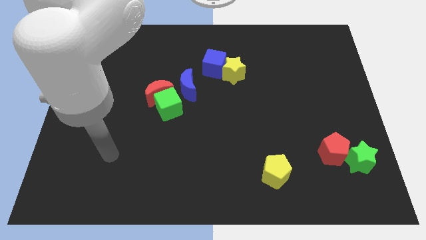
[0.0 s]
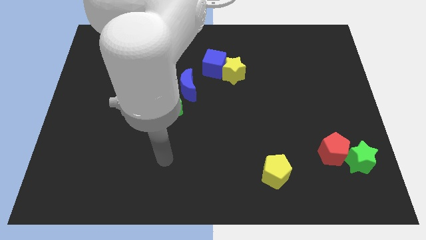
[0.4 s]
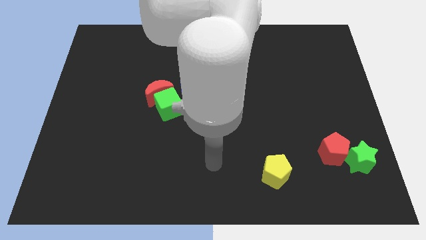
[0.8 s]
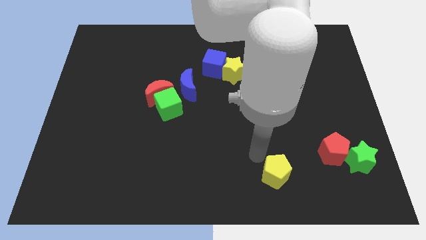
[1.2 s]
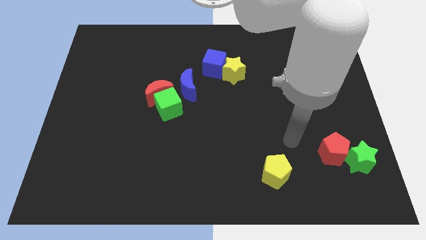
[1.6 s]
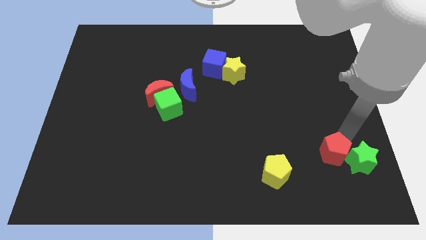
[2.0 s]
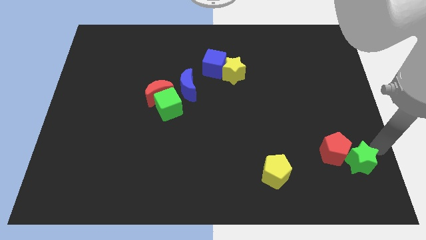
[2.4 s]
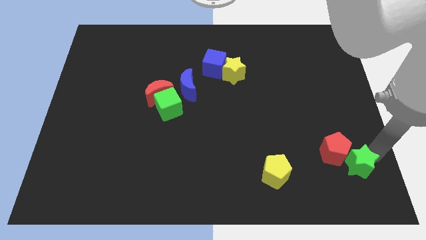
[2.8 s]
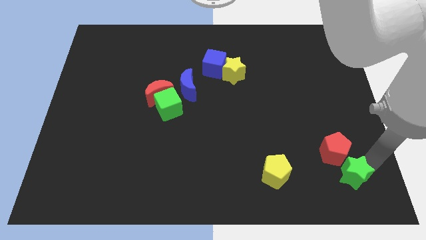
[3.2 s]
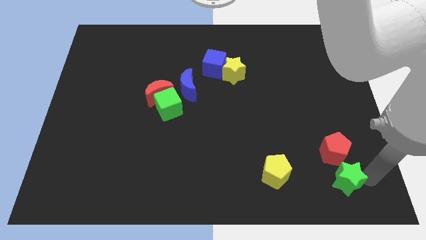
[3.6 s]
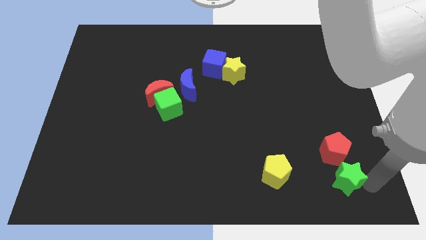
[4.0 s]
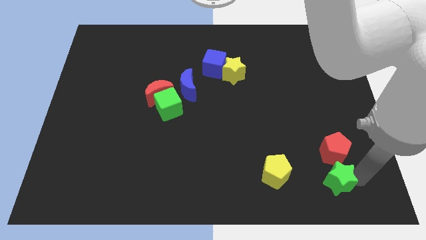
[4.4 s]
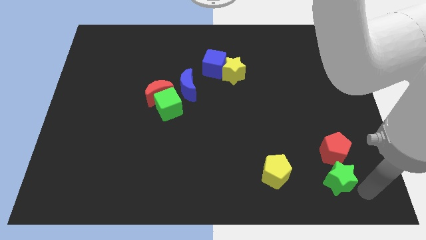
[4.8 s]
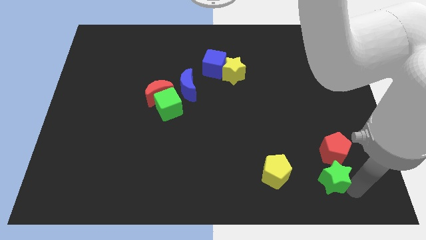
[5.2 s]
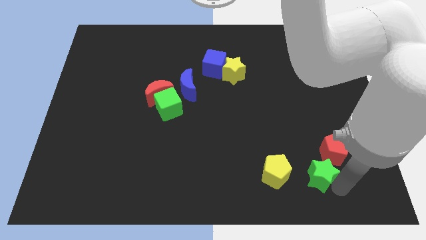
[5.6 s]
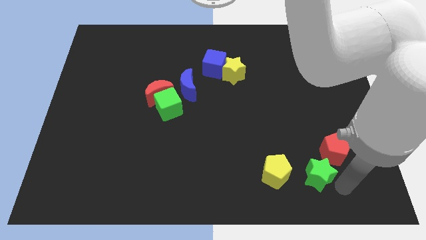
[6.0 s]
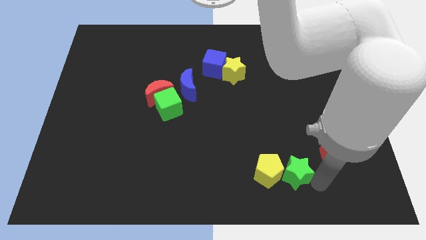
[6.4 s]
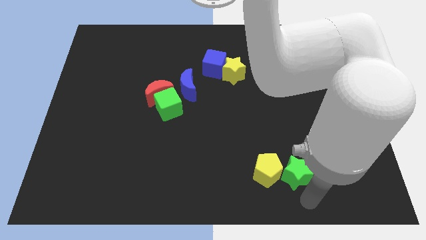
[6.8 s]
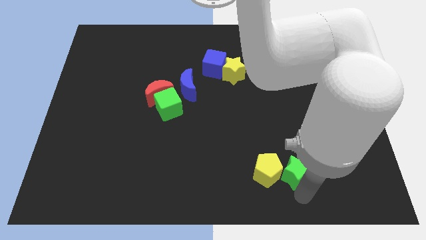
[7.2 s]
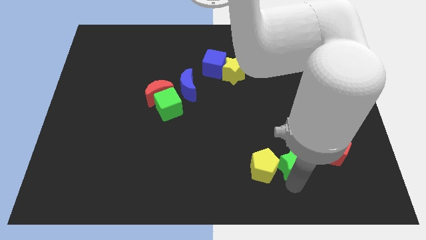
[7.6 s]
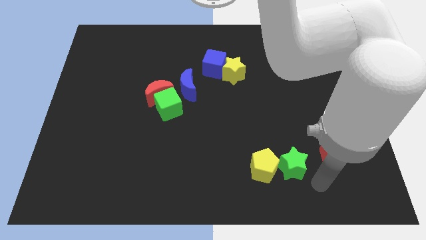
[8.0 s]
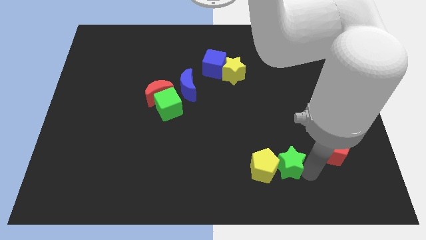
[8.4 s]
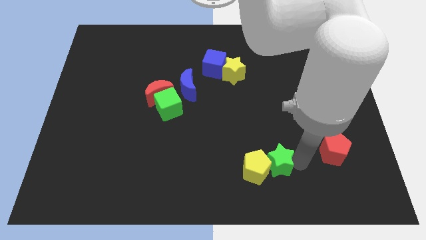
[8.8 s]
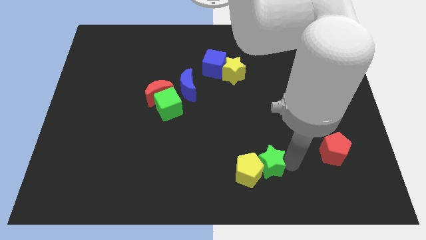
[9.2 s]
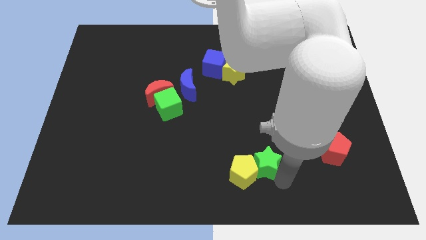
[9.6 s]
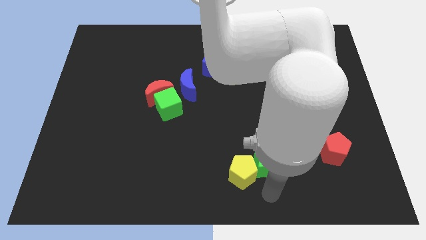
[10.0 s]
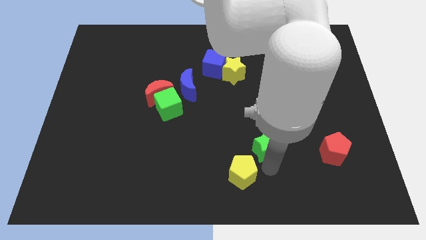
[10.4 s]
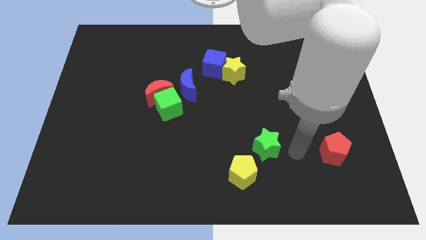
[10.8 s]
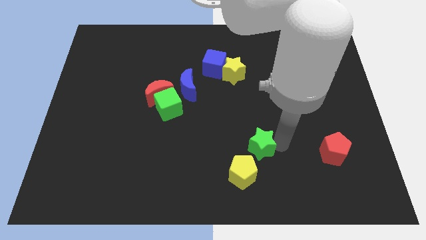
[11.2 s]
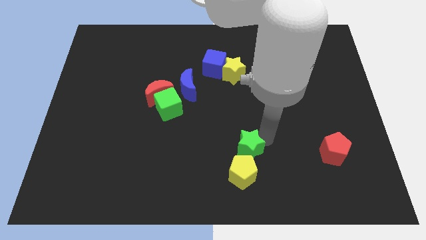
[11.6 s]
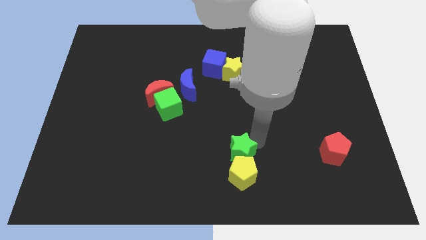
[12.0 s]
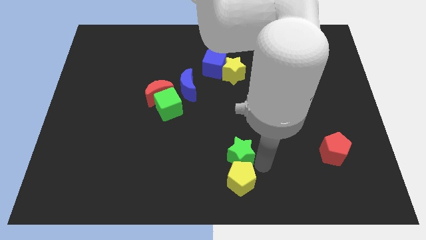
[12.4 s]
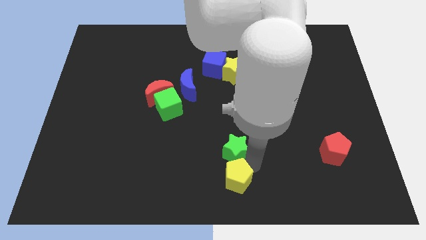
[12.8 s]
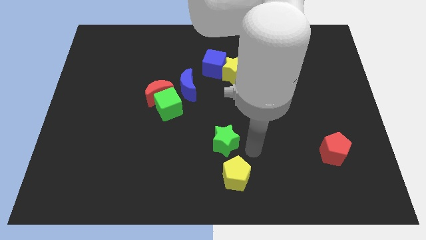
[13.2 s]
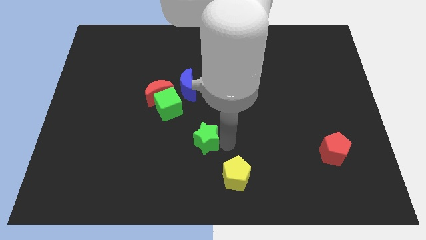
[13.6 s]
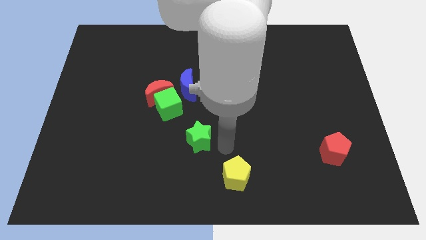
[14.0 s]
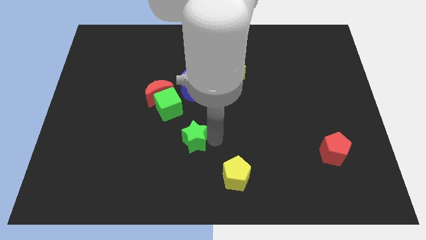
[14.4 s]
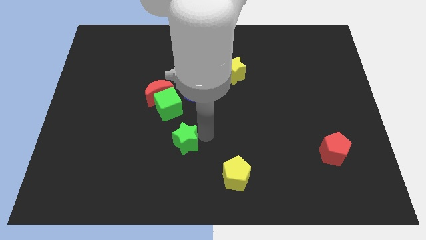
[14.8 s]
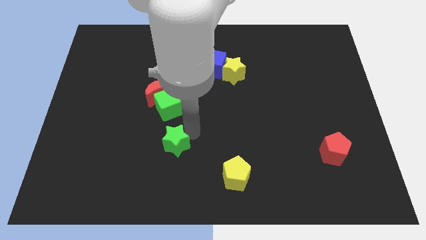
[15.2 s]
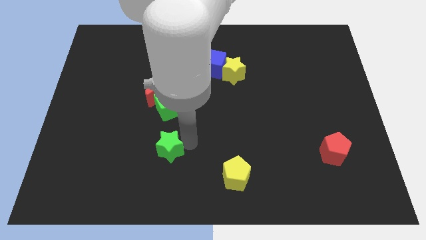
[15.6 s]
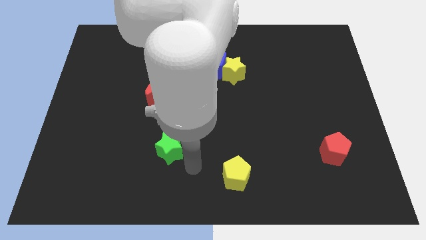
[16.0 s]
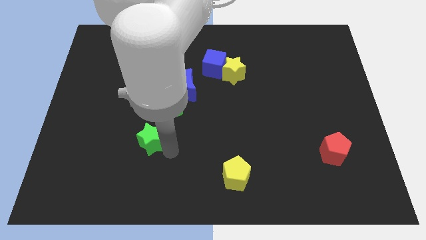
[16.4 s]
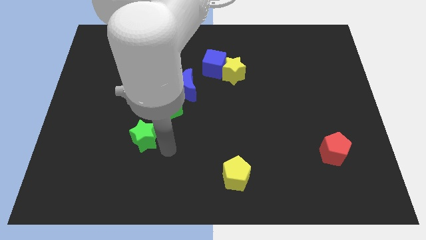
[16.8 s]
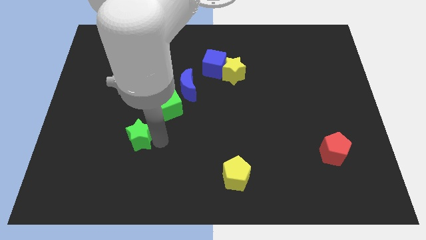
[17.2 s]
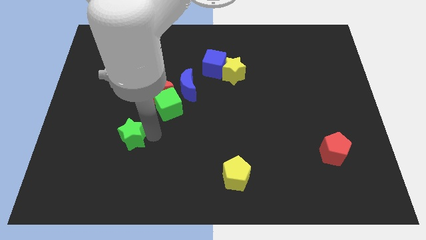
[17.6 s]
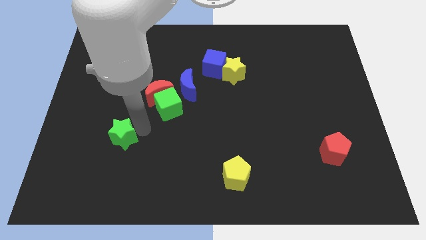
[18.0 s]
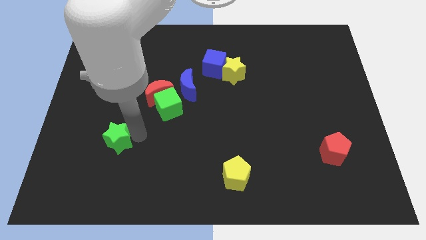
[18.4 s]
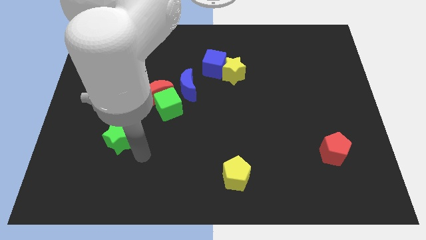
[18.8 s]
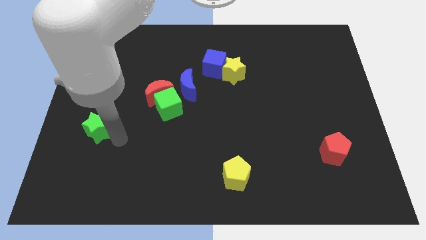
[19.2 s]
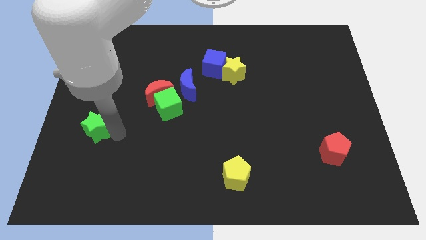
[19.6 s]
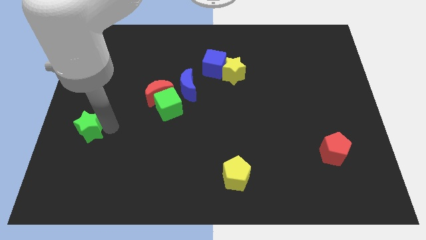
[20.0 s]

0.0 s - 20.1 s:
slide the green star to the left side

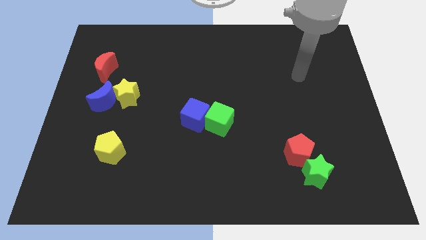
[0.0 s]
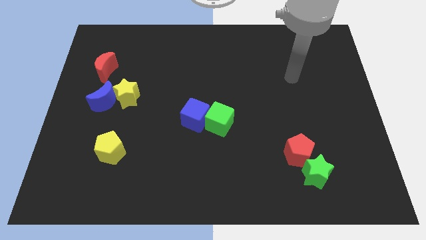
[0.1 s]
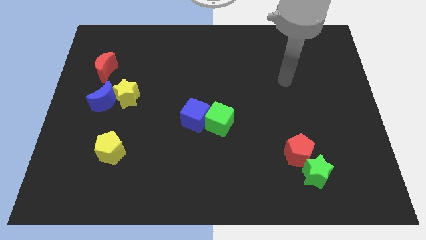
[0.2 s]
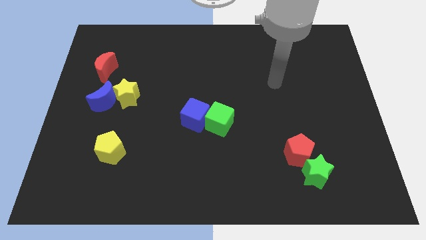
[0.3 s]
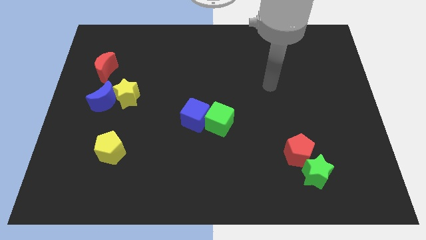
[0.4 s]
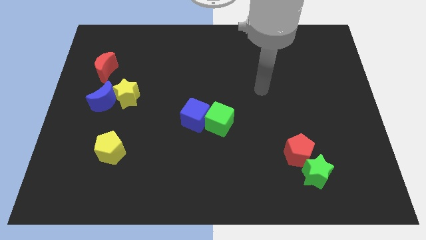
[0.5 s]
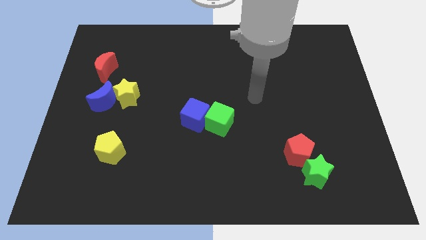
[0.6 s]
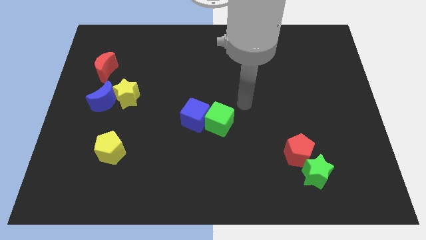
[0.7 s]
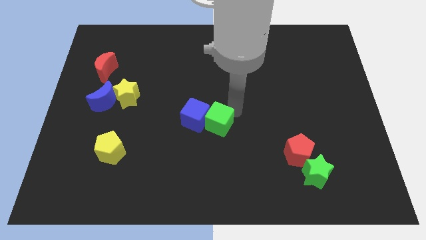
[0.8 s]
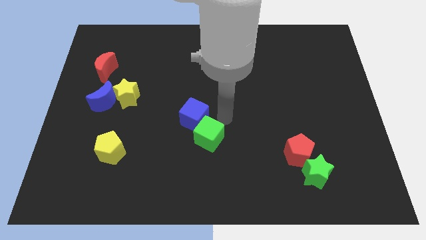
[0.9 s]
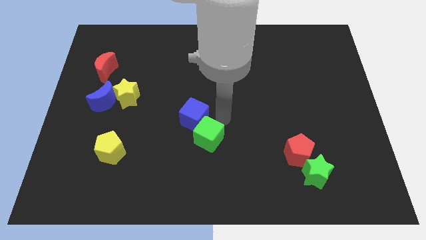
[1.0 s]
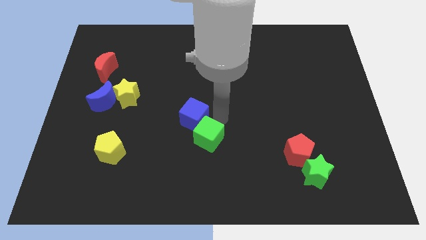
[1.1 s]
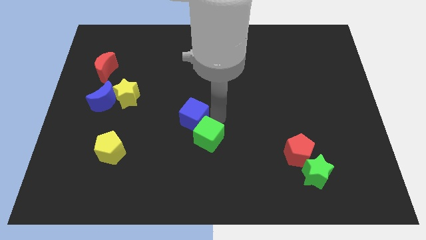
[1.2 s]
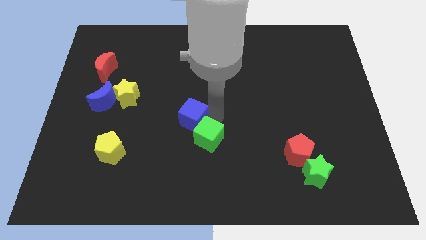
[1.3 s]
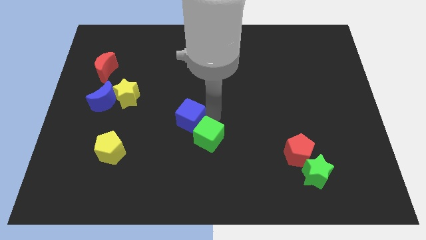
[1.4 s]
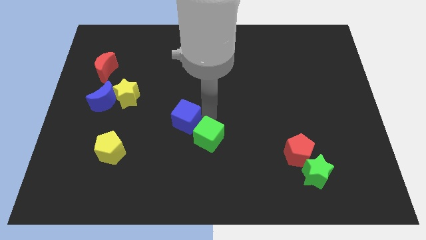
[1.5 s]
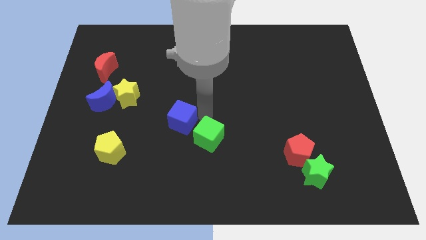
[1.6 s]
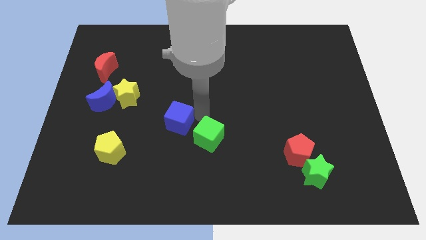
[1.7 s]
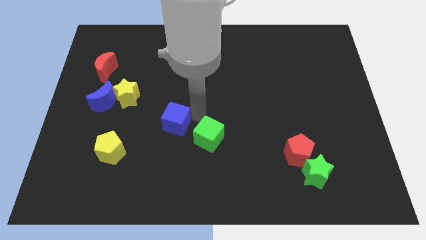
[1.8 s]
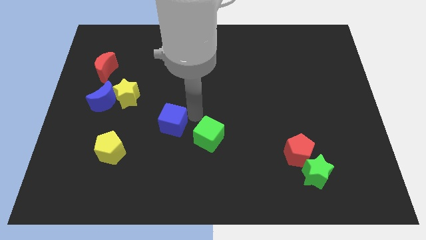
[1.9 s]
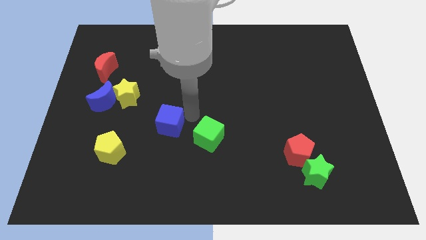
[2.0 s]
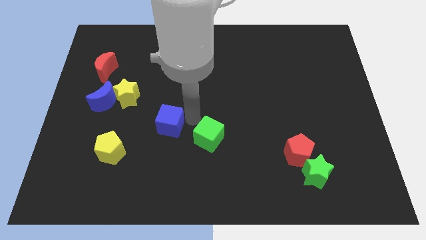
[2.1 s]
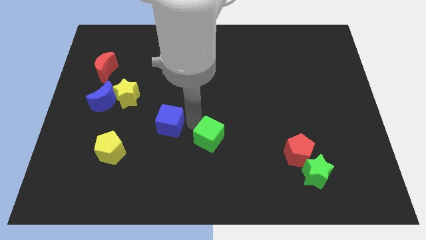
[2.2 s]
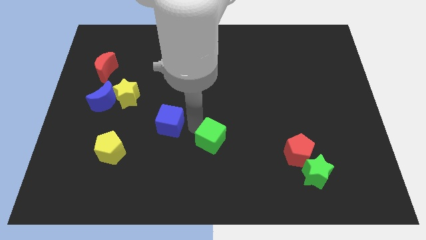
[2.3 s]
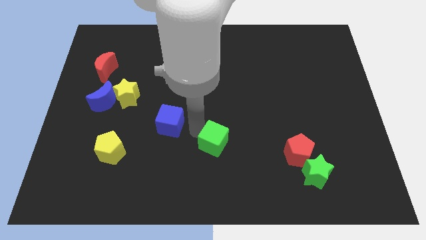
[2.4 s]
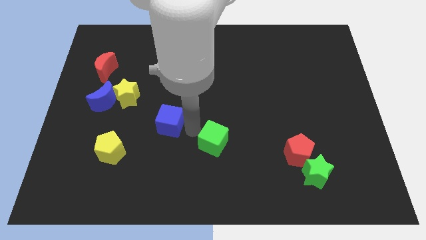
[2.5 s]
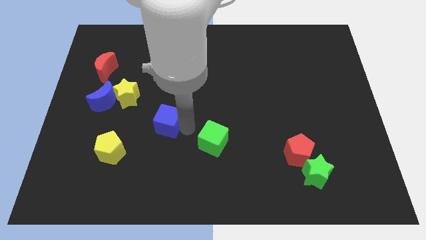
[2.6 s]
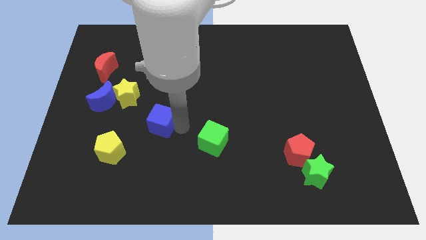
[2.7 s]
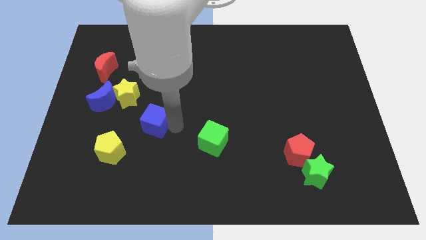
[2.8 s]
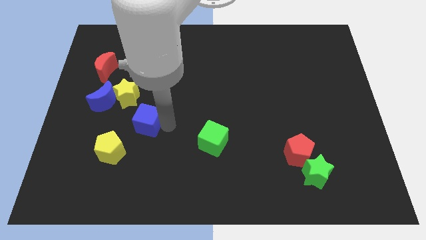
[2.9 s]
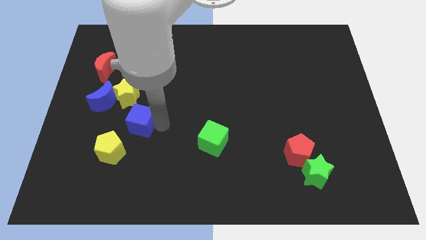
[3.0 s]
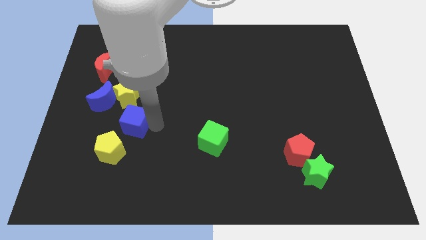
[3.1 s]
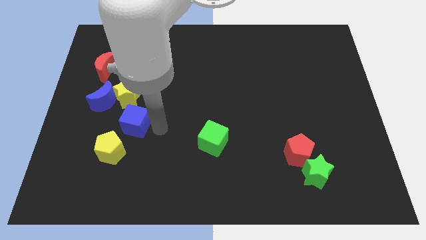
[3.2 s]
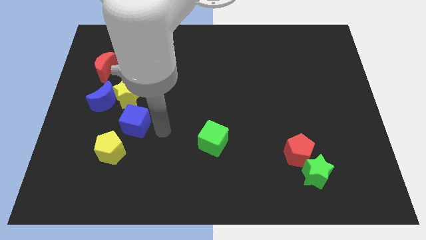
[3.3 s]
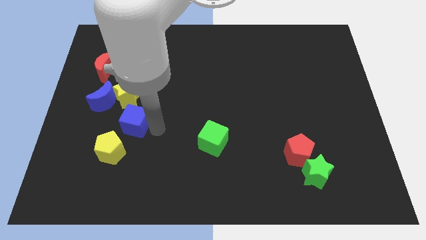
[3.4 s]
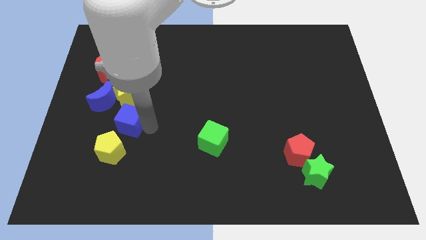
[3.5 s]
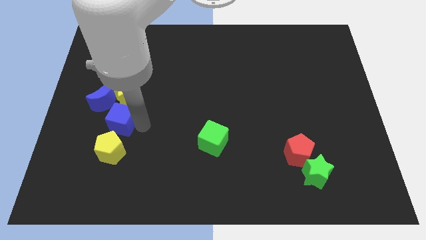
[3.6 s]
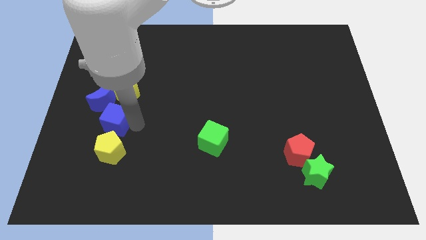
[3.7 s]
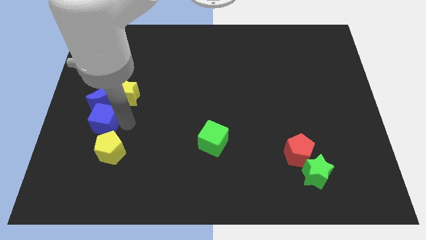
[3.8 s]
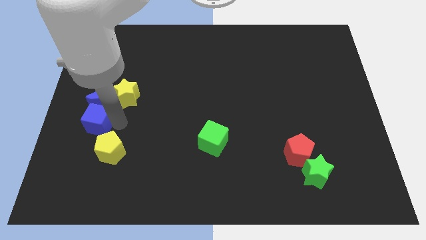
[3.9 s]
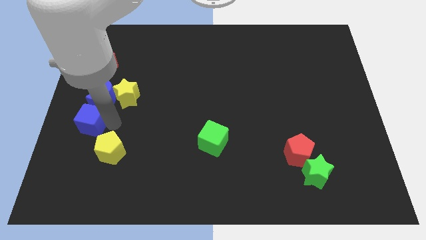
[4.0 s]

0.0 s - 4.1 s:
slide the blue cube to the left side
